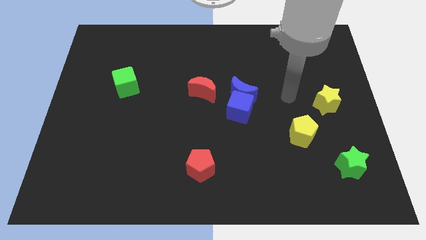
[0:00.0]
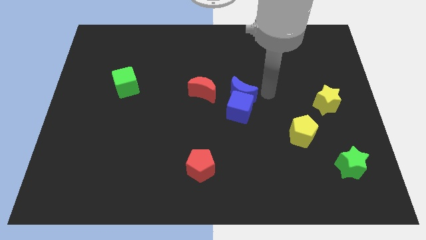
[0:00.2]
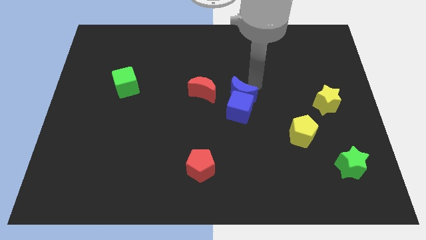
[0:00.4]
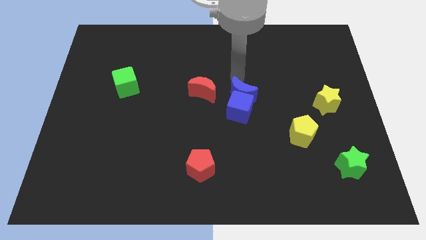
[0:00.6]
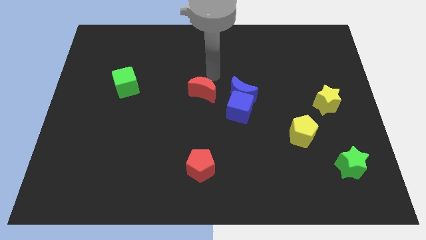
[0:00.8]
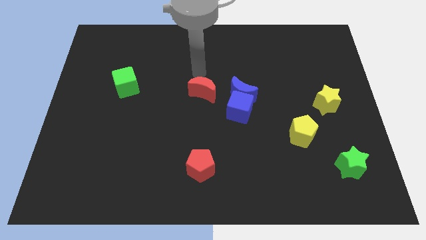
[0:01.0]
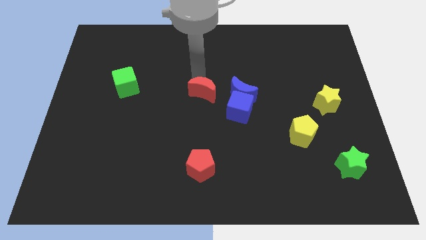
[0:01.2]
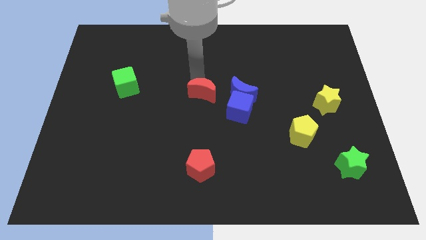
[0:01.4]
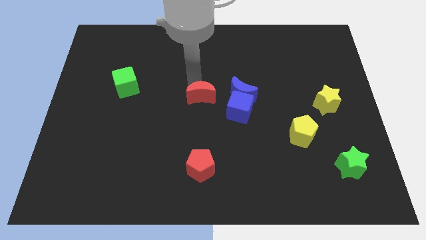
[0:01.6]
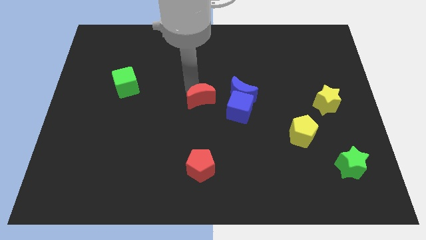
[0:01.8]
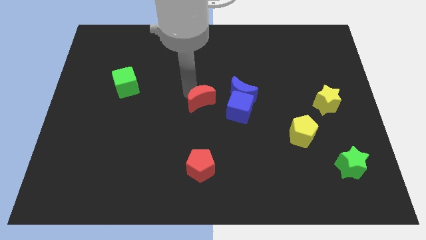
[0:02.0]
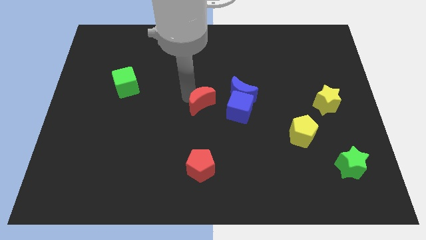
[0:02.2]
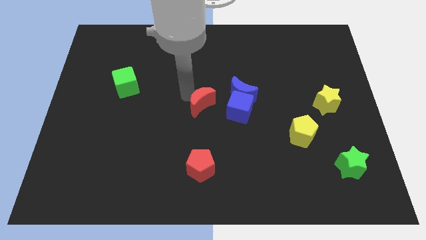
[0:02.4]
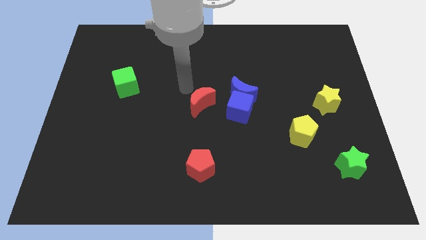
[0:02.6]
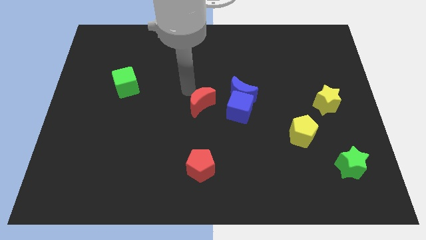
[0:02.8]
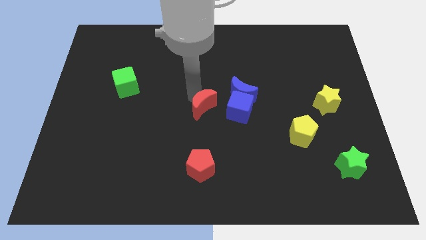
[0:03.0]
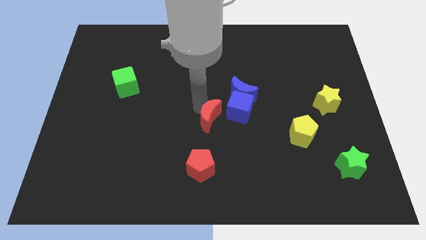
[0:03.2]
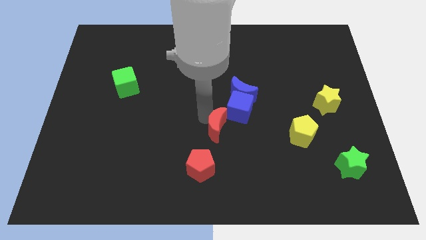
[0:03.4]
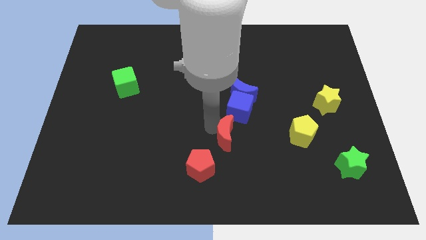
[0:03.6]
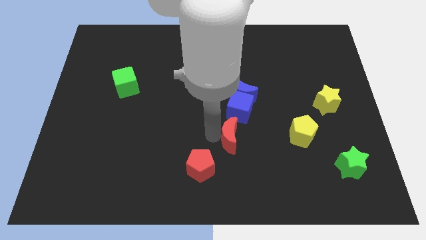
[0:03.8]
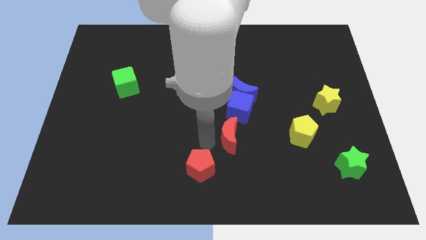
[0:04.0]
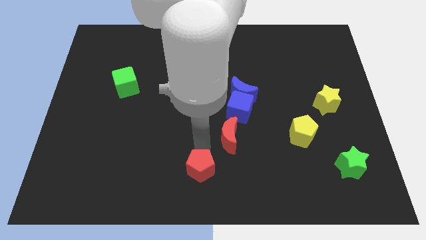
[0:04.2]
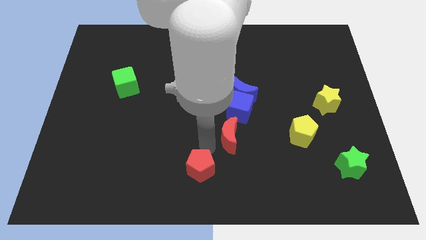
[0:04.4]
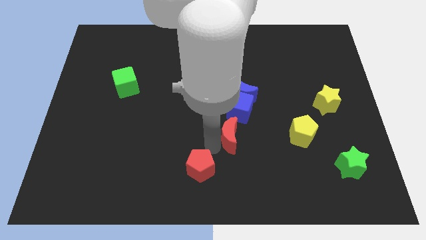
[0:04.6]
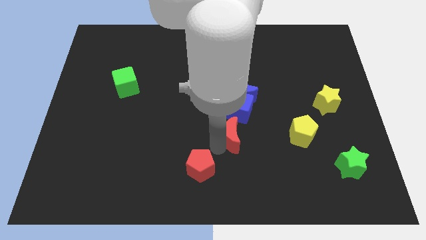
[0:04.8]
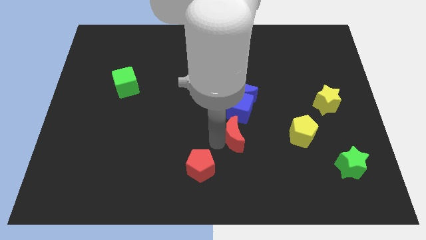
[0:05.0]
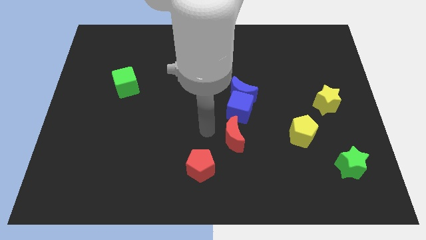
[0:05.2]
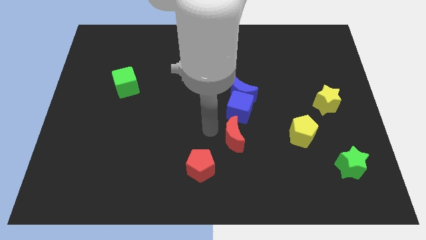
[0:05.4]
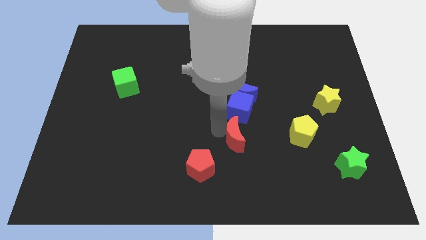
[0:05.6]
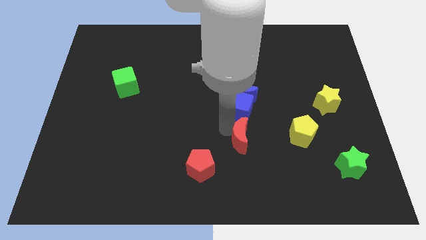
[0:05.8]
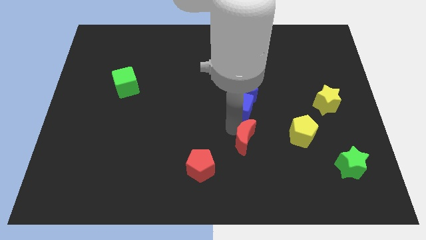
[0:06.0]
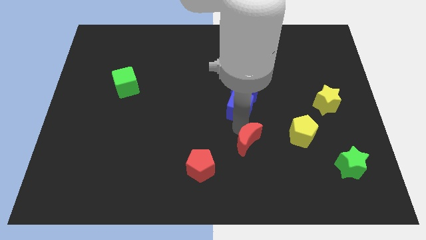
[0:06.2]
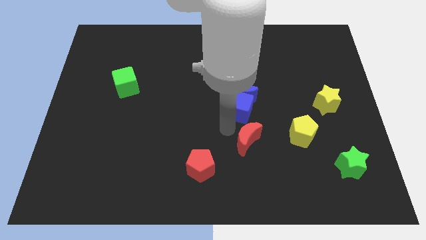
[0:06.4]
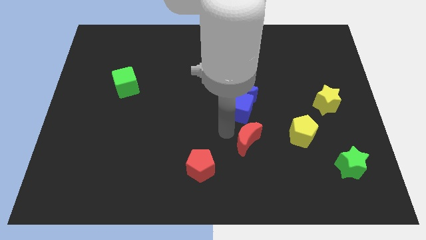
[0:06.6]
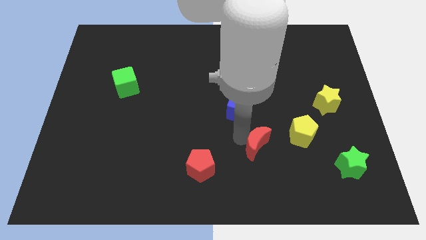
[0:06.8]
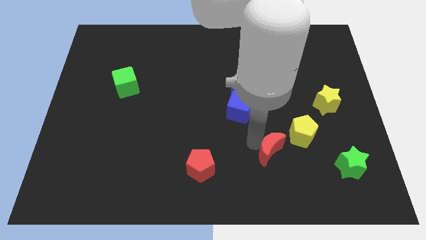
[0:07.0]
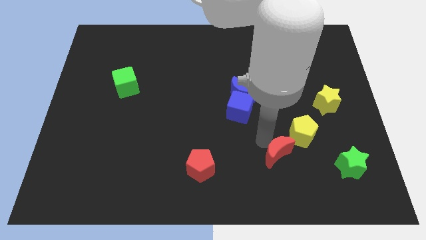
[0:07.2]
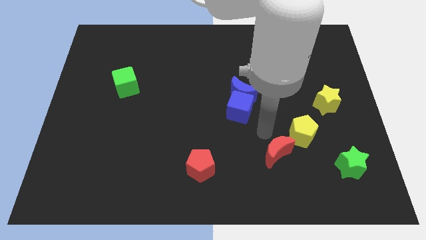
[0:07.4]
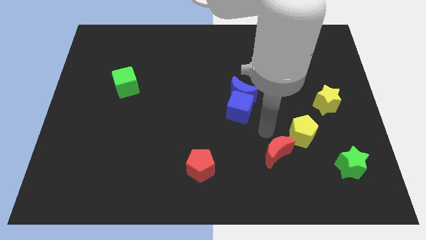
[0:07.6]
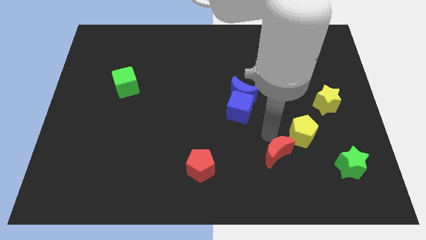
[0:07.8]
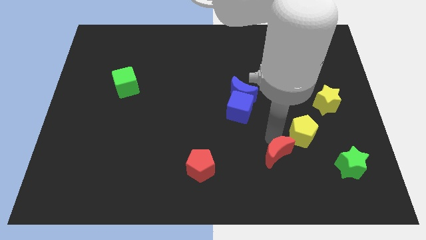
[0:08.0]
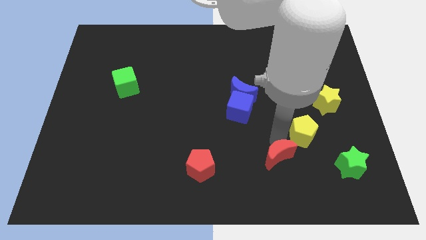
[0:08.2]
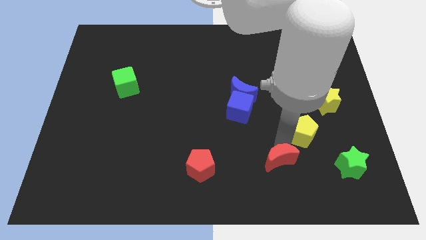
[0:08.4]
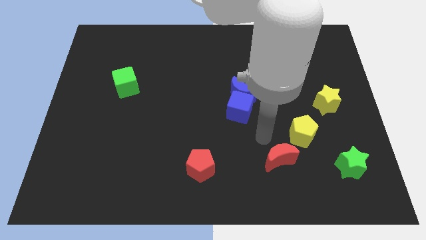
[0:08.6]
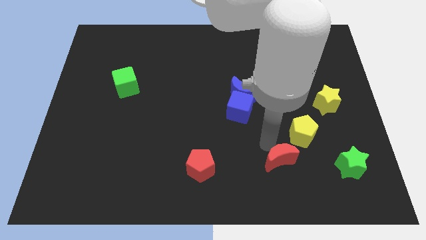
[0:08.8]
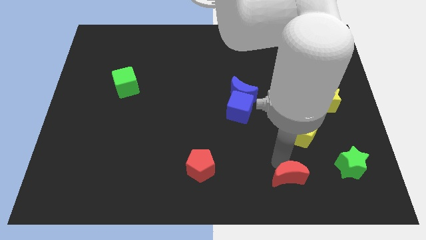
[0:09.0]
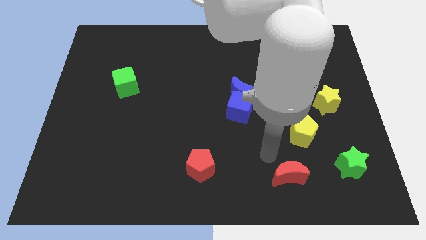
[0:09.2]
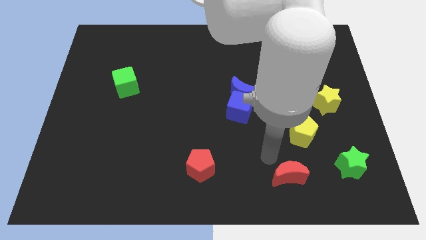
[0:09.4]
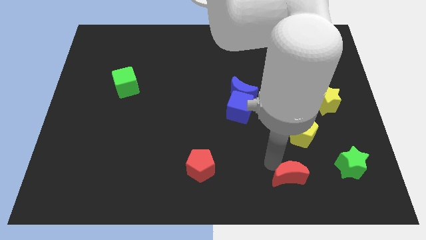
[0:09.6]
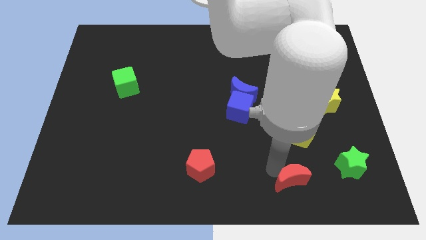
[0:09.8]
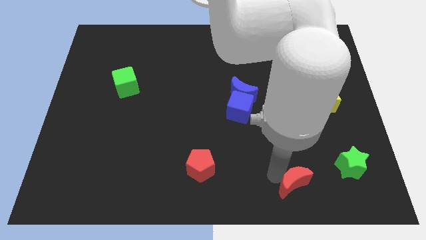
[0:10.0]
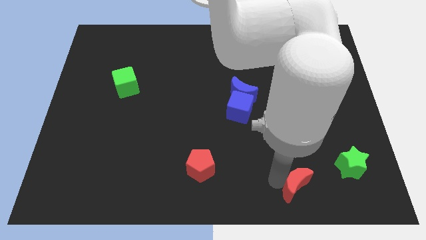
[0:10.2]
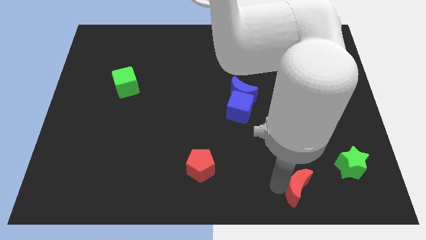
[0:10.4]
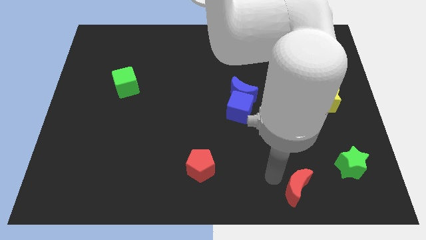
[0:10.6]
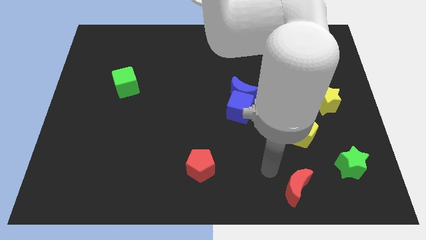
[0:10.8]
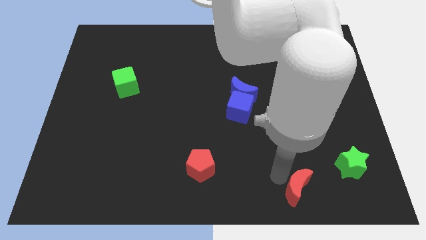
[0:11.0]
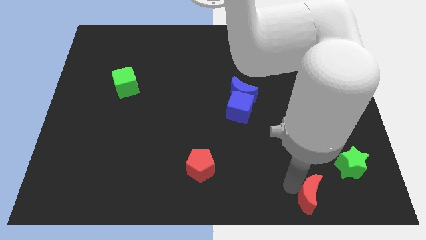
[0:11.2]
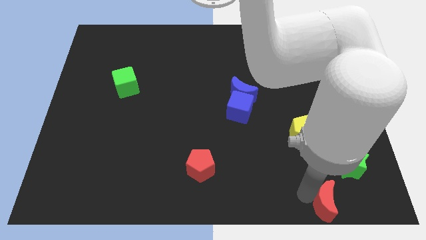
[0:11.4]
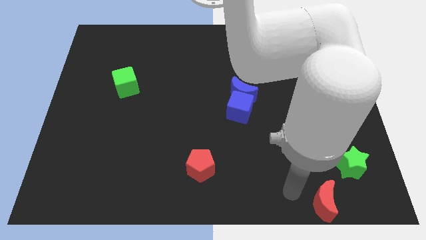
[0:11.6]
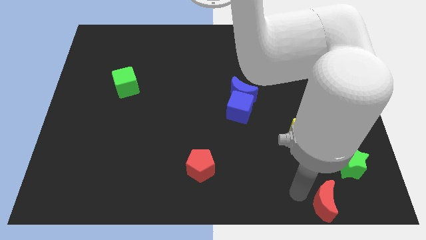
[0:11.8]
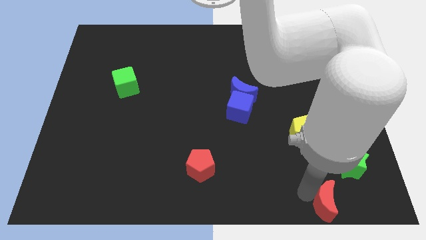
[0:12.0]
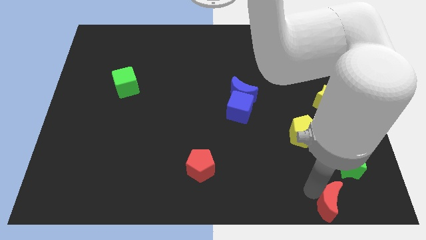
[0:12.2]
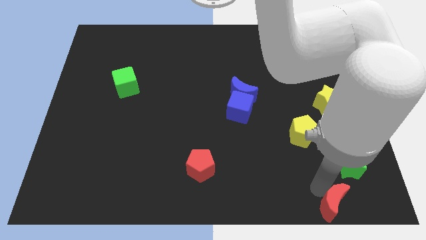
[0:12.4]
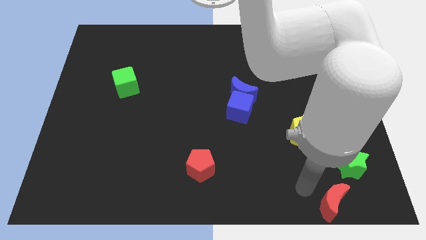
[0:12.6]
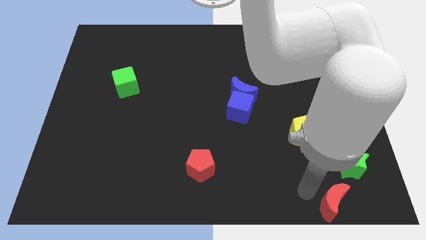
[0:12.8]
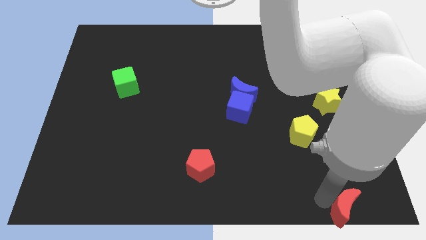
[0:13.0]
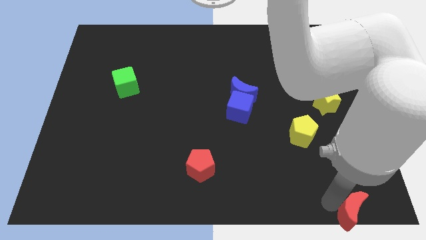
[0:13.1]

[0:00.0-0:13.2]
move the red moon to the bottom right corner
